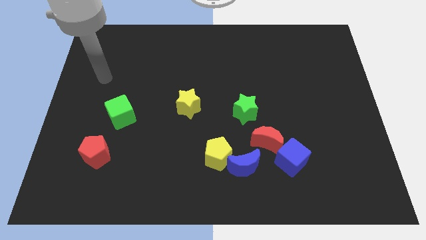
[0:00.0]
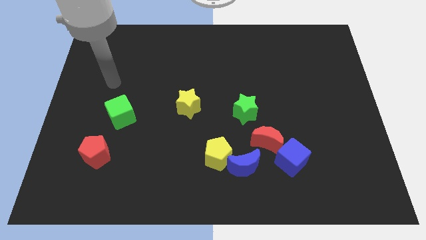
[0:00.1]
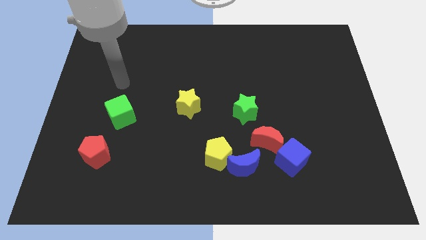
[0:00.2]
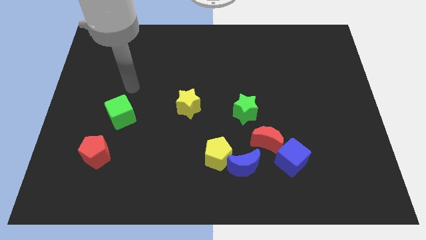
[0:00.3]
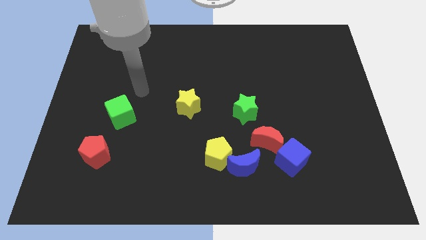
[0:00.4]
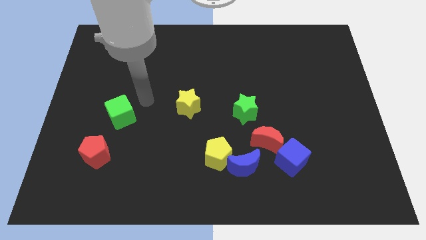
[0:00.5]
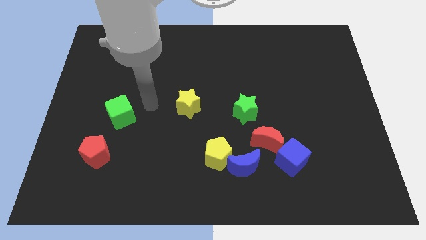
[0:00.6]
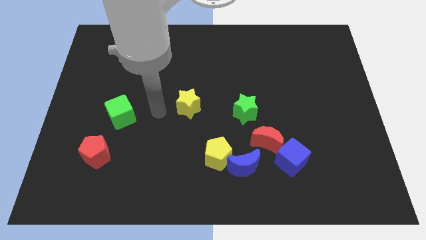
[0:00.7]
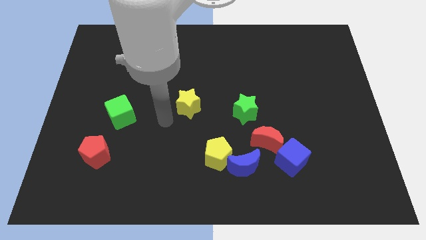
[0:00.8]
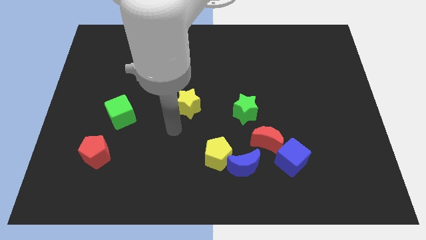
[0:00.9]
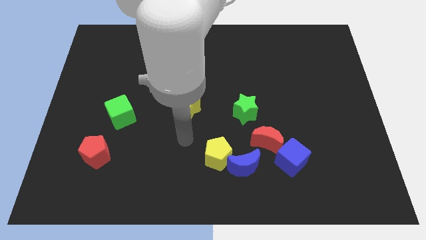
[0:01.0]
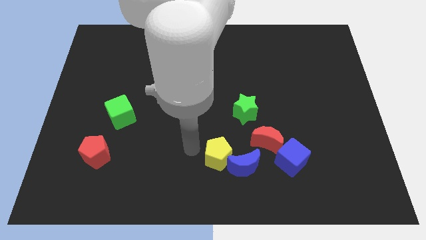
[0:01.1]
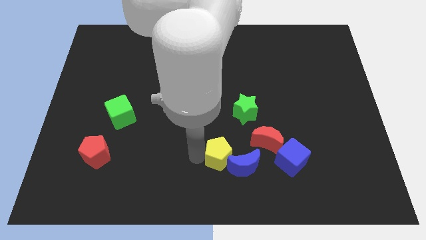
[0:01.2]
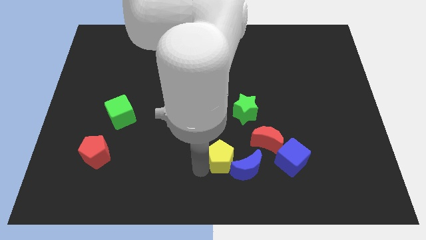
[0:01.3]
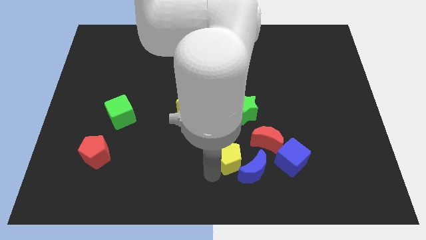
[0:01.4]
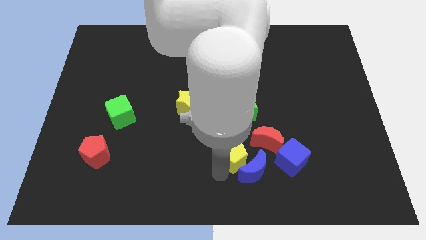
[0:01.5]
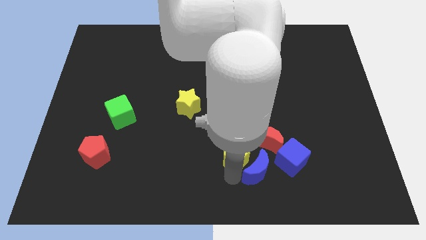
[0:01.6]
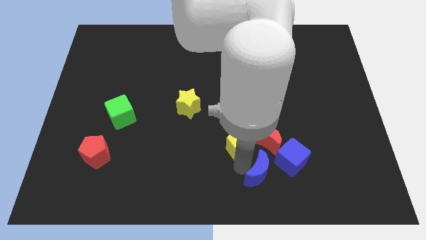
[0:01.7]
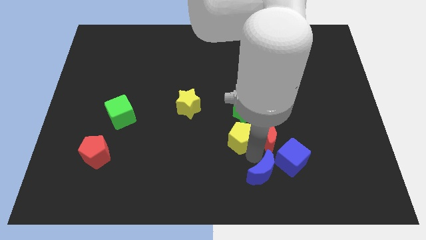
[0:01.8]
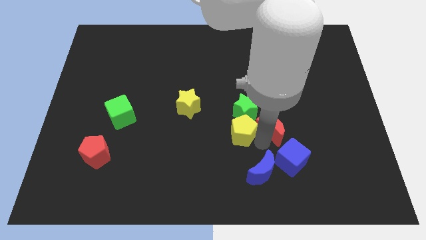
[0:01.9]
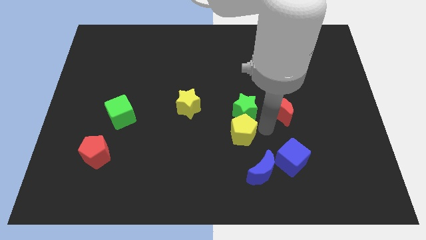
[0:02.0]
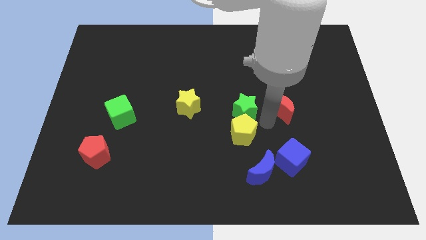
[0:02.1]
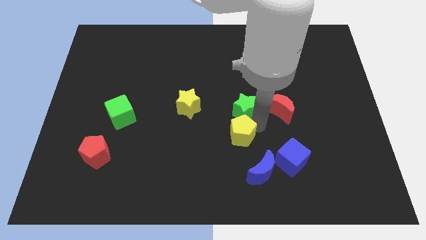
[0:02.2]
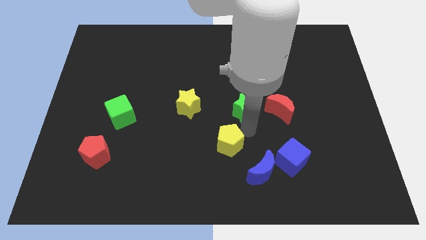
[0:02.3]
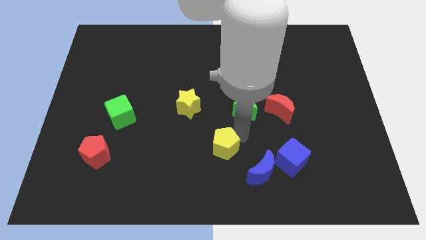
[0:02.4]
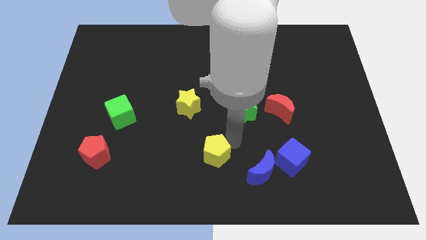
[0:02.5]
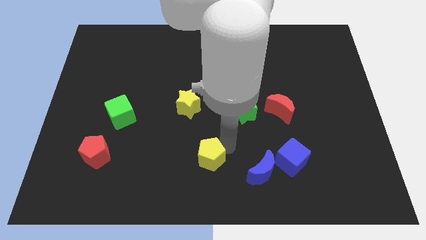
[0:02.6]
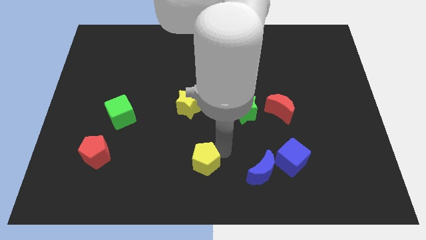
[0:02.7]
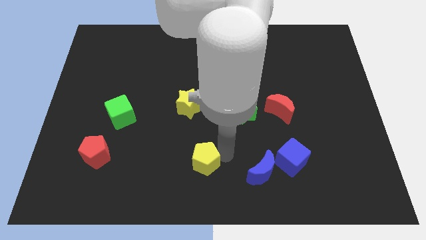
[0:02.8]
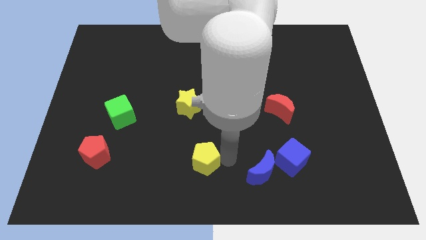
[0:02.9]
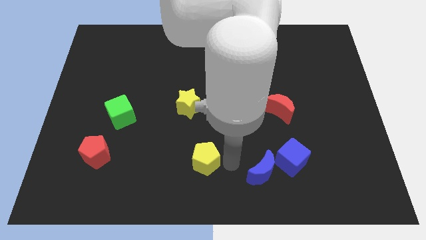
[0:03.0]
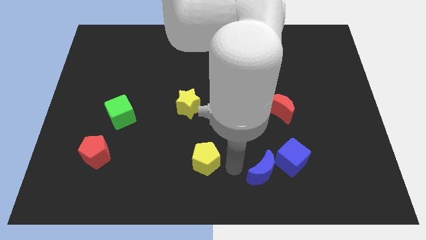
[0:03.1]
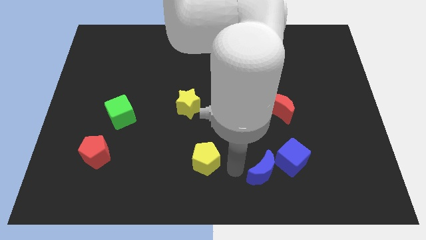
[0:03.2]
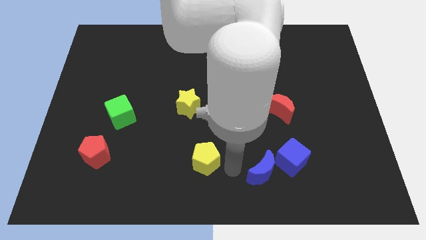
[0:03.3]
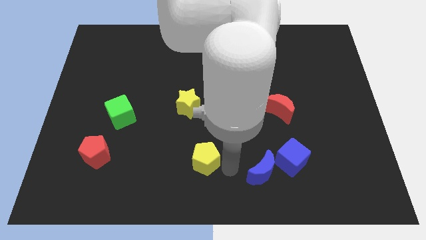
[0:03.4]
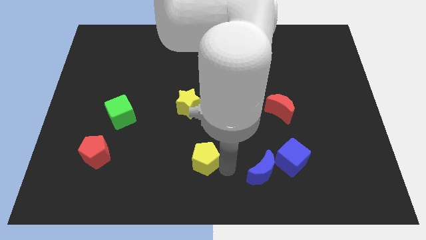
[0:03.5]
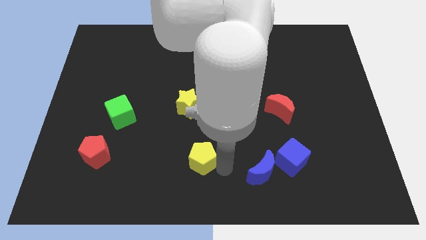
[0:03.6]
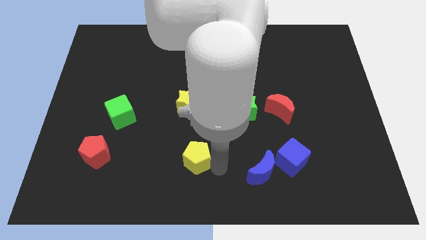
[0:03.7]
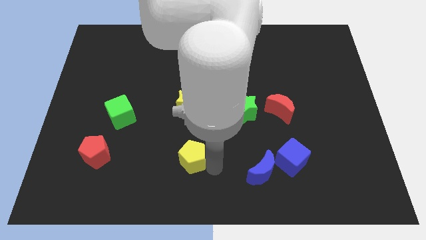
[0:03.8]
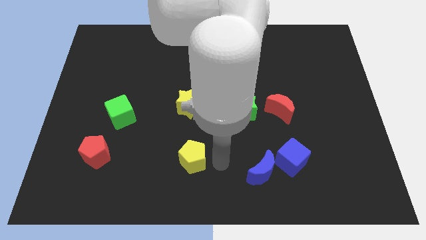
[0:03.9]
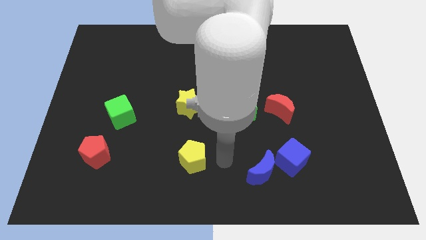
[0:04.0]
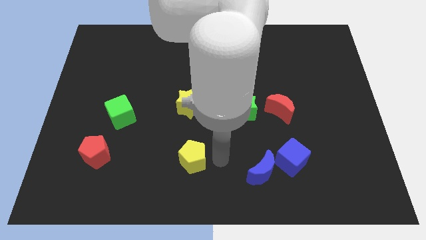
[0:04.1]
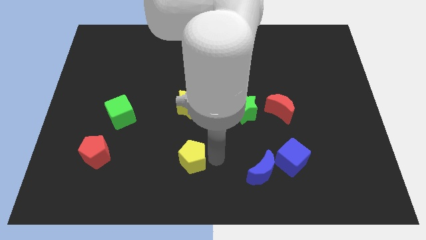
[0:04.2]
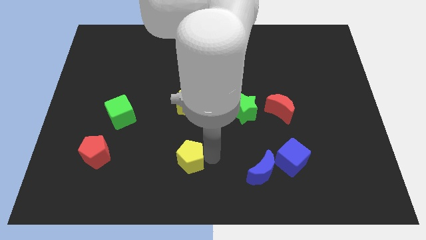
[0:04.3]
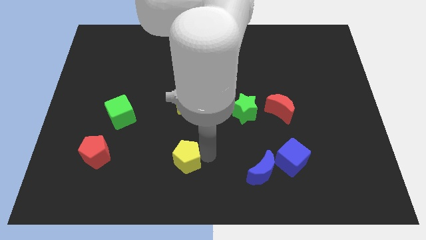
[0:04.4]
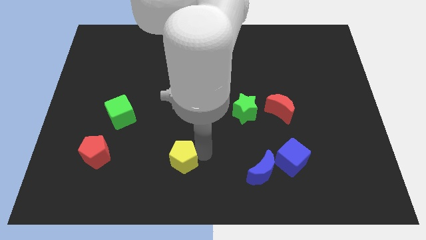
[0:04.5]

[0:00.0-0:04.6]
slide the yellow pentagon left a little bit

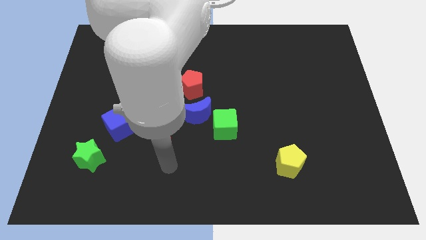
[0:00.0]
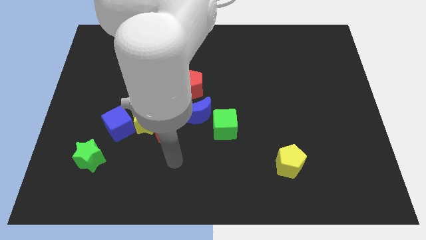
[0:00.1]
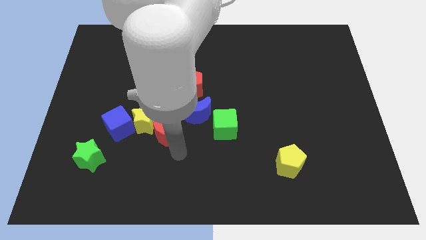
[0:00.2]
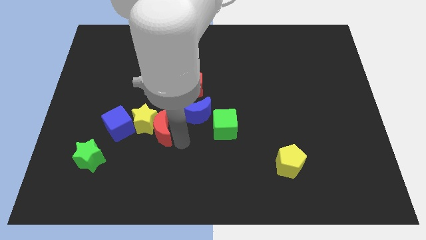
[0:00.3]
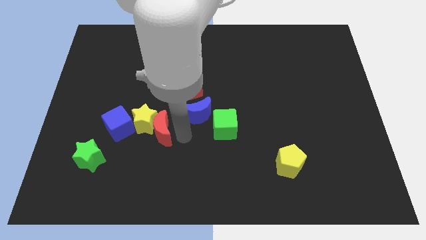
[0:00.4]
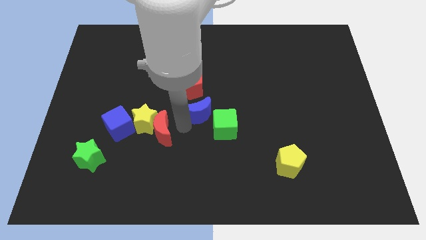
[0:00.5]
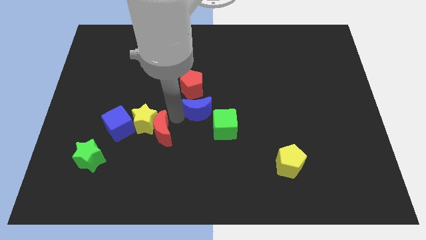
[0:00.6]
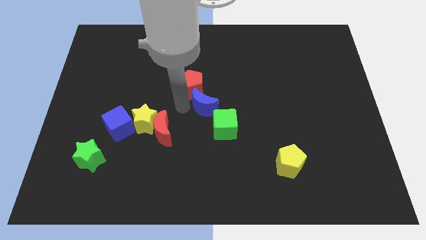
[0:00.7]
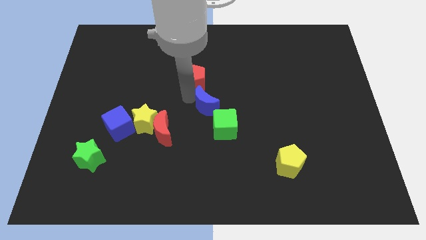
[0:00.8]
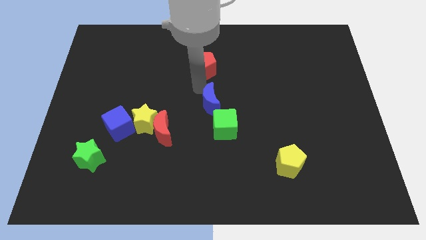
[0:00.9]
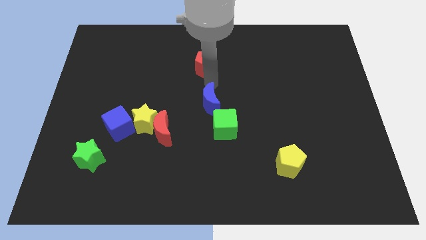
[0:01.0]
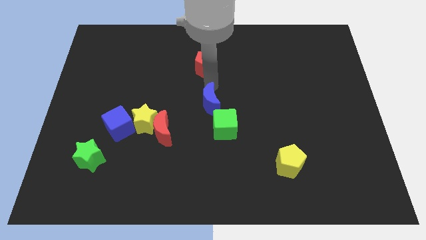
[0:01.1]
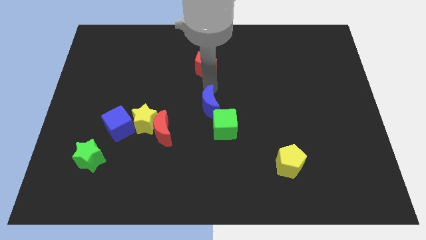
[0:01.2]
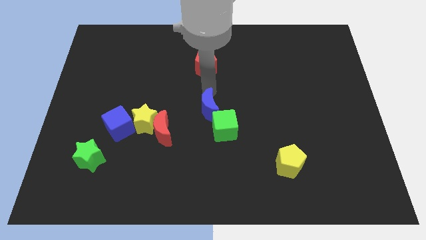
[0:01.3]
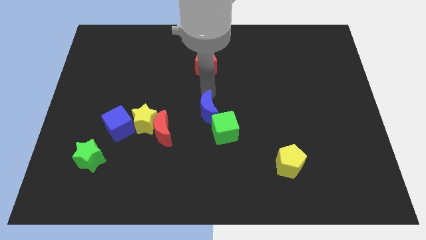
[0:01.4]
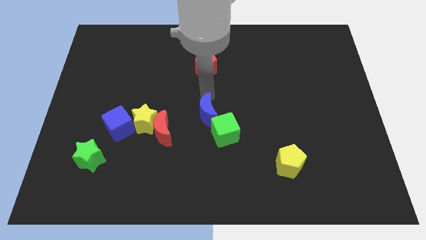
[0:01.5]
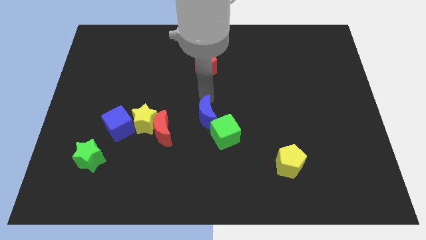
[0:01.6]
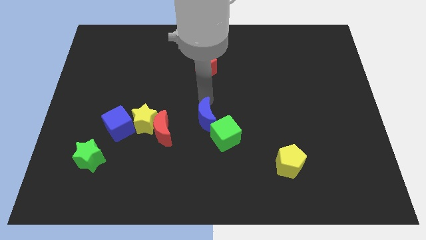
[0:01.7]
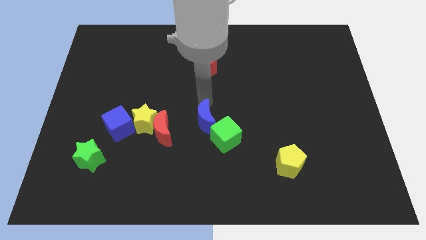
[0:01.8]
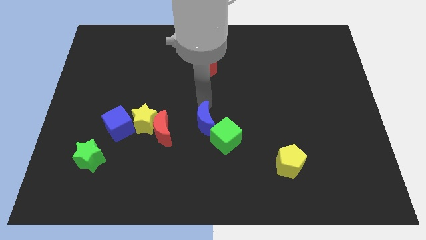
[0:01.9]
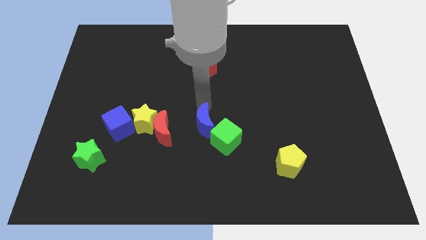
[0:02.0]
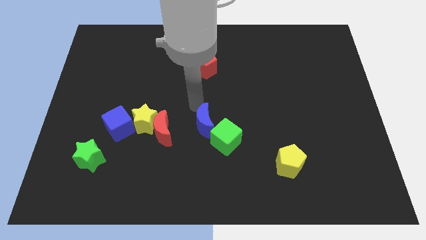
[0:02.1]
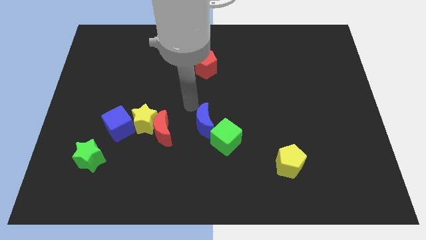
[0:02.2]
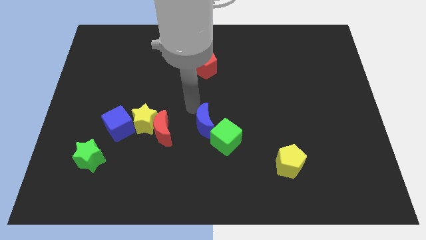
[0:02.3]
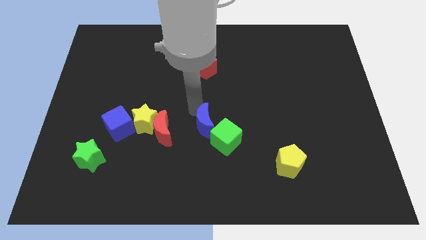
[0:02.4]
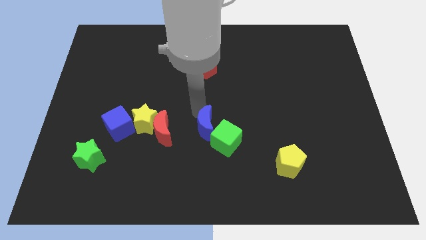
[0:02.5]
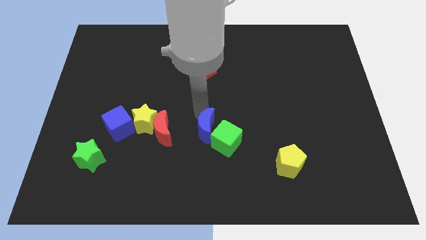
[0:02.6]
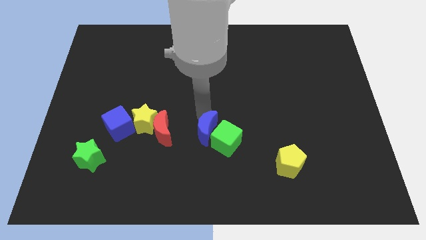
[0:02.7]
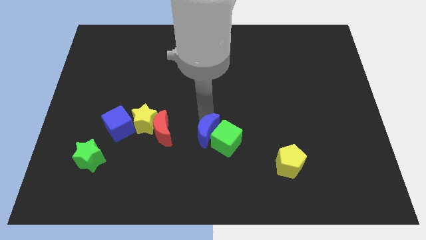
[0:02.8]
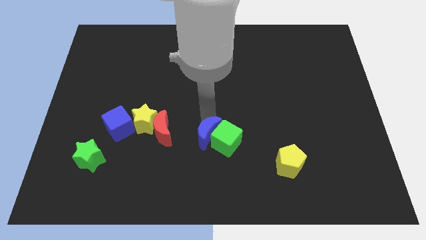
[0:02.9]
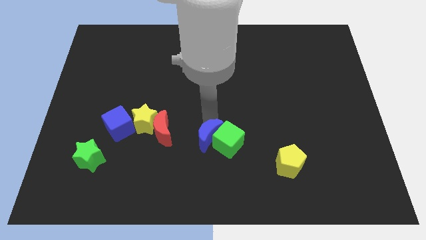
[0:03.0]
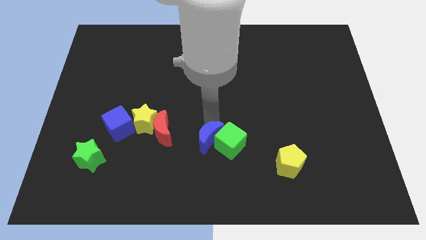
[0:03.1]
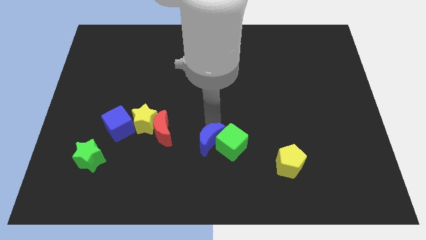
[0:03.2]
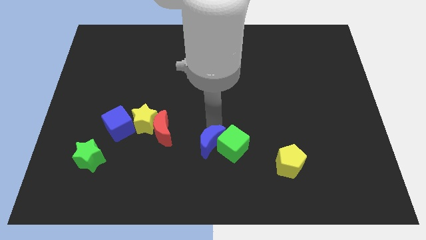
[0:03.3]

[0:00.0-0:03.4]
slightly move the blue moon diagonally downwards and right
